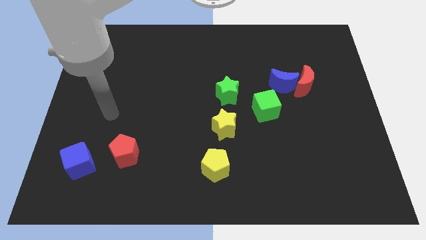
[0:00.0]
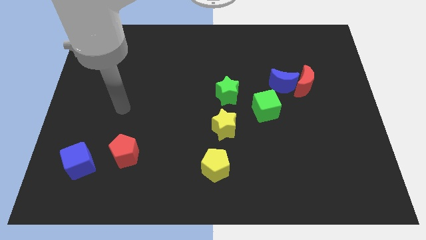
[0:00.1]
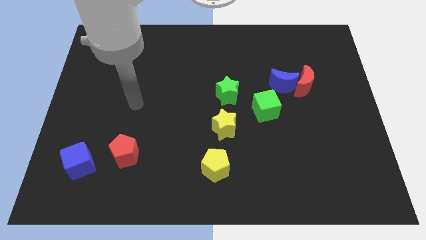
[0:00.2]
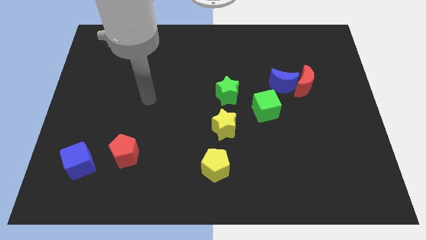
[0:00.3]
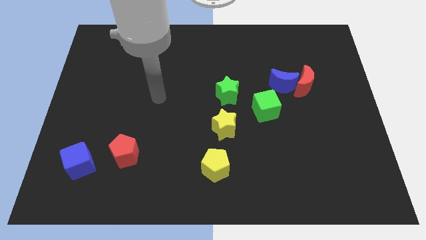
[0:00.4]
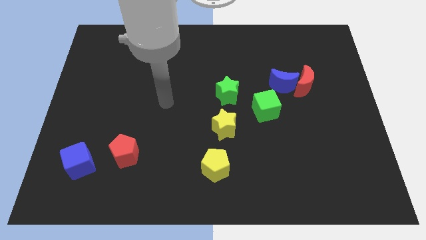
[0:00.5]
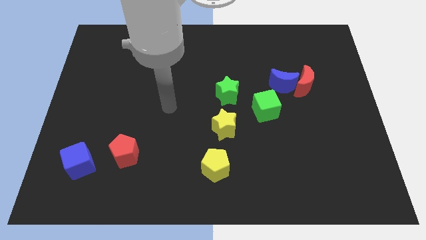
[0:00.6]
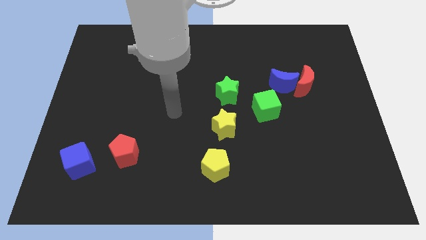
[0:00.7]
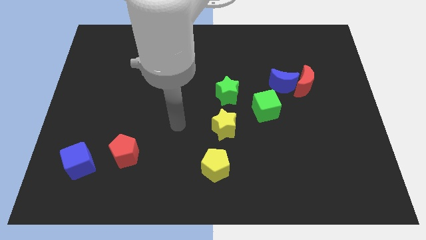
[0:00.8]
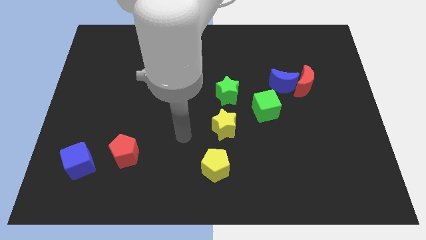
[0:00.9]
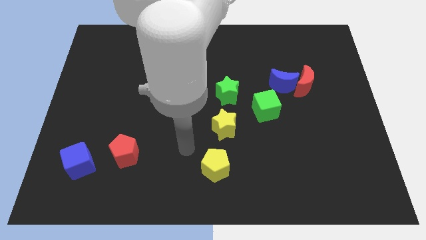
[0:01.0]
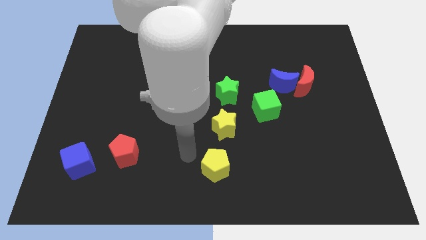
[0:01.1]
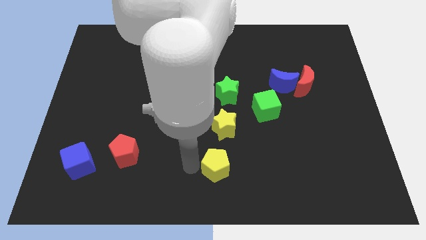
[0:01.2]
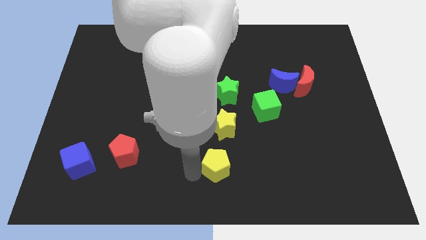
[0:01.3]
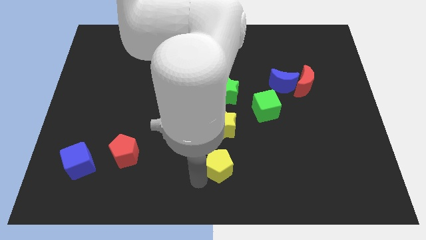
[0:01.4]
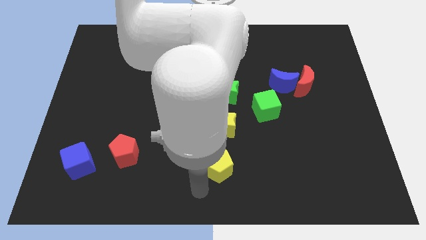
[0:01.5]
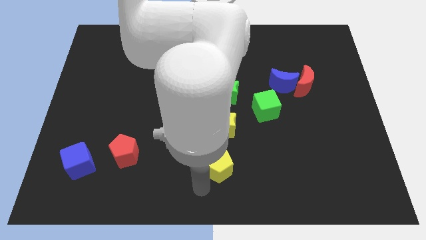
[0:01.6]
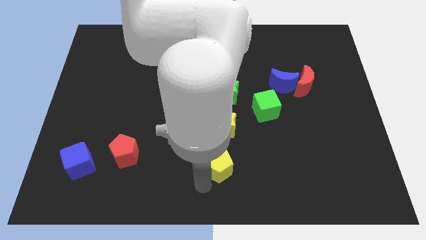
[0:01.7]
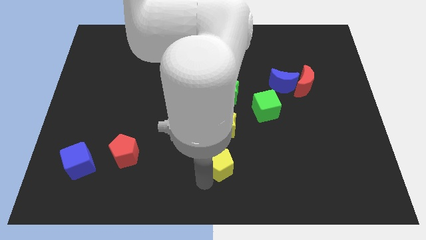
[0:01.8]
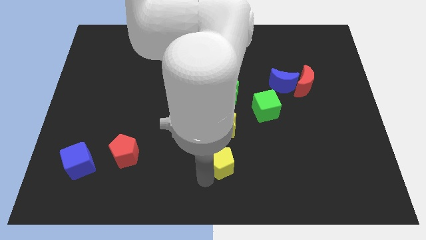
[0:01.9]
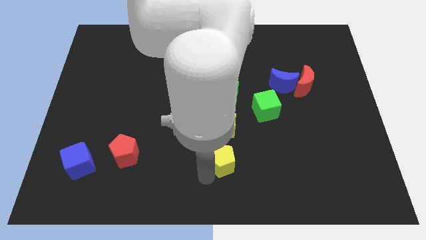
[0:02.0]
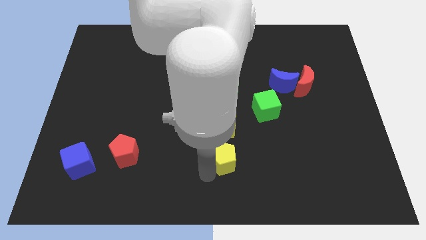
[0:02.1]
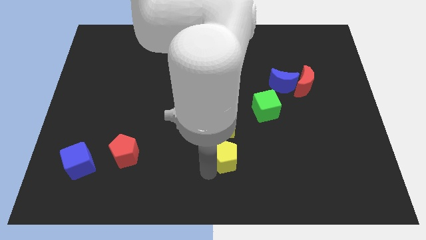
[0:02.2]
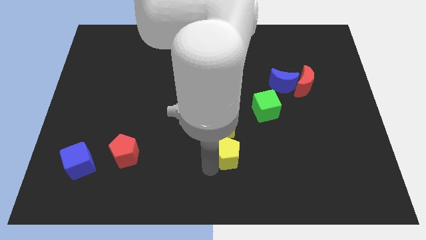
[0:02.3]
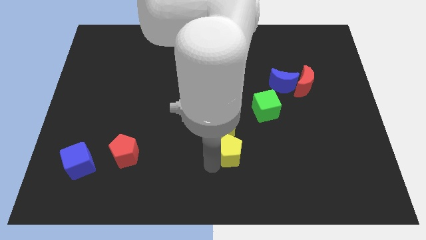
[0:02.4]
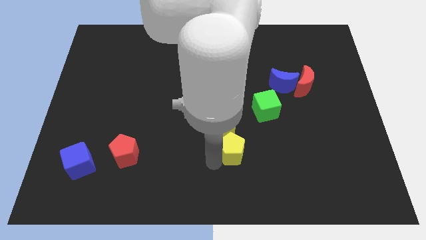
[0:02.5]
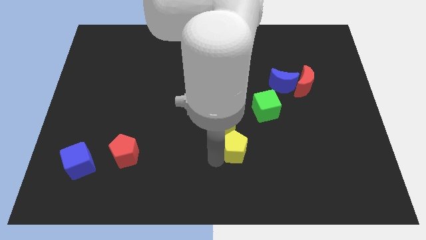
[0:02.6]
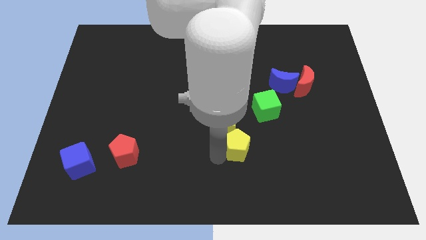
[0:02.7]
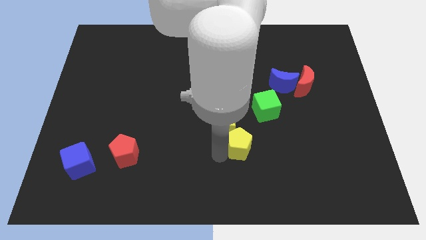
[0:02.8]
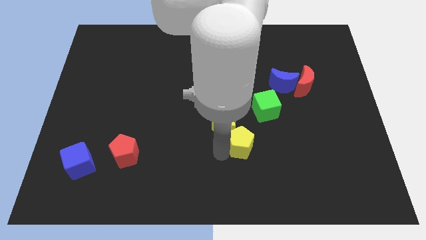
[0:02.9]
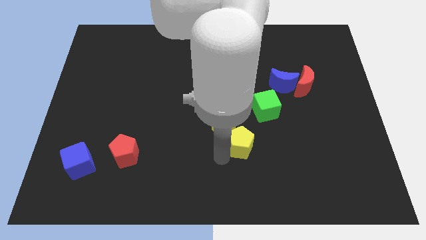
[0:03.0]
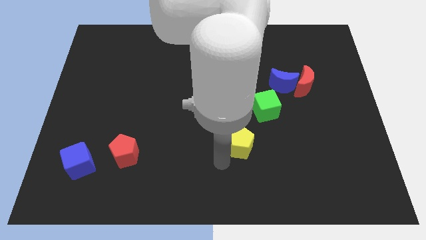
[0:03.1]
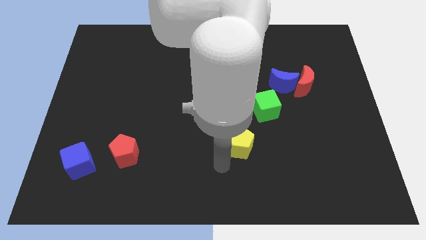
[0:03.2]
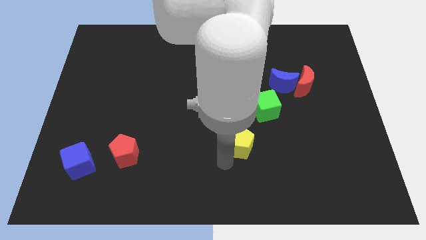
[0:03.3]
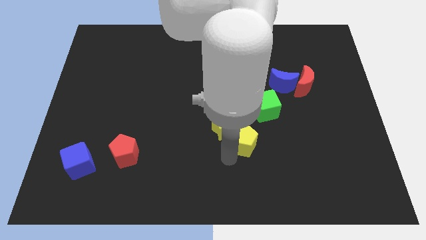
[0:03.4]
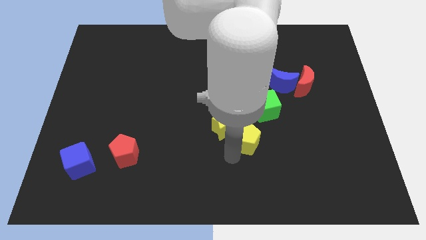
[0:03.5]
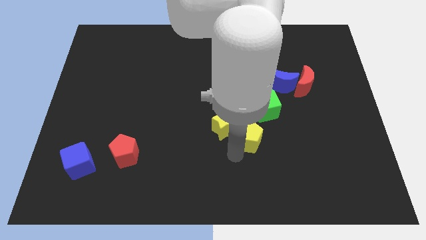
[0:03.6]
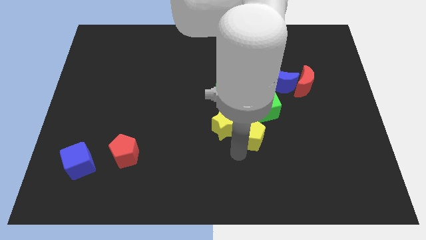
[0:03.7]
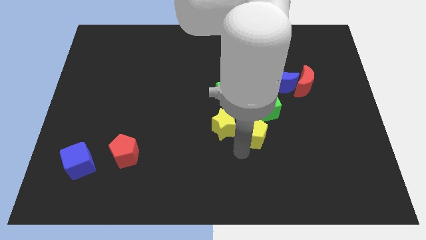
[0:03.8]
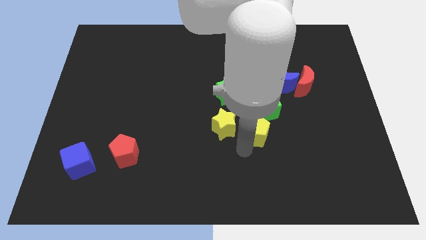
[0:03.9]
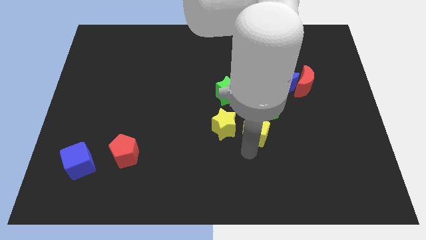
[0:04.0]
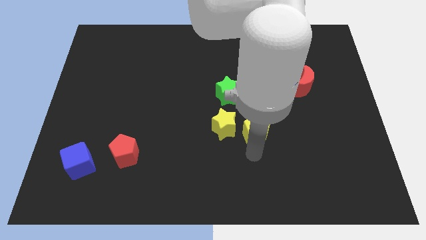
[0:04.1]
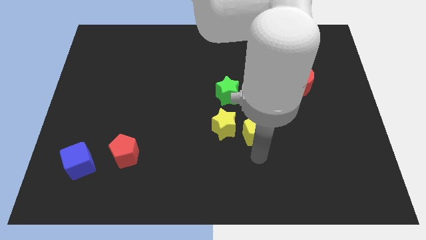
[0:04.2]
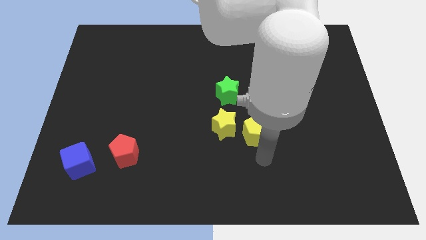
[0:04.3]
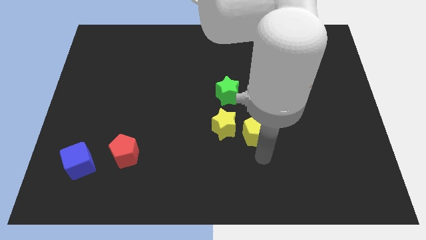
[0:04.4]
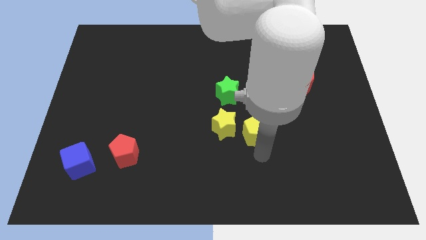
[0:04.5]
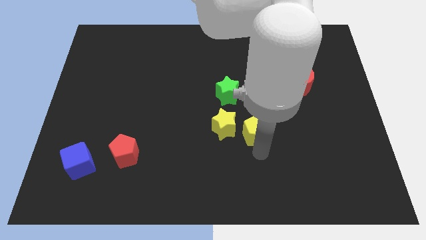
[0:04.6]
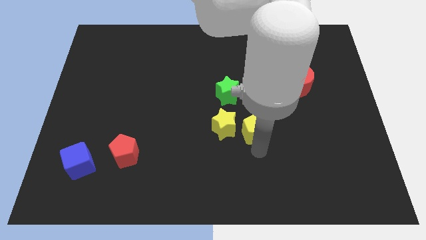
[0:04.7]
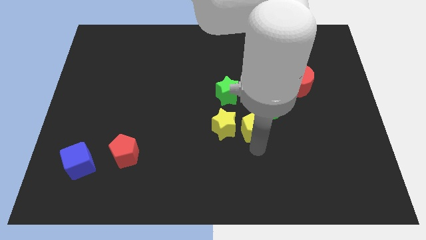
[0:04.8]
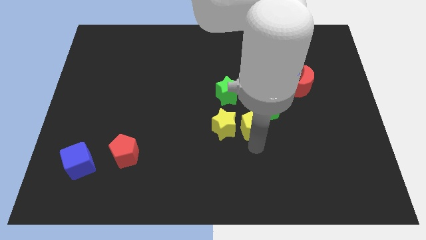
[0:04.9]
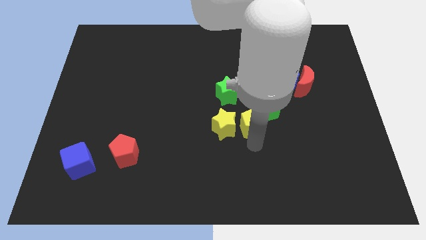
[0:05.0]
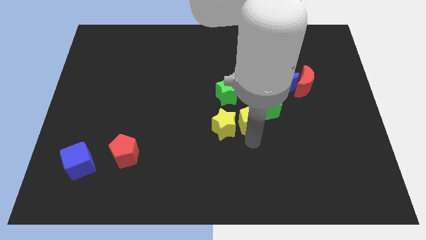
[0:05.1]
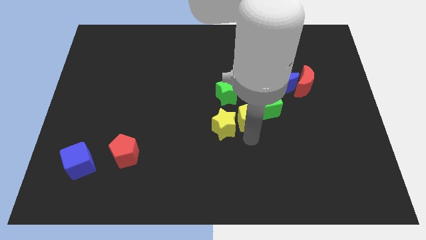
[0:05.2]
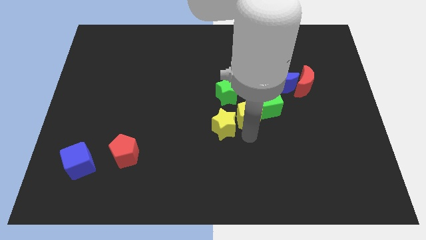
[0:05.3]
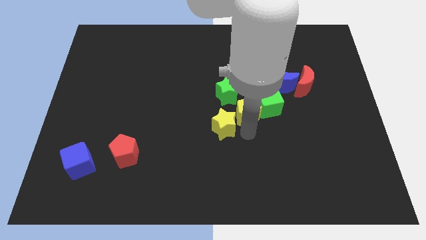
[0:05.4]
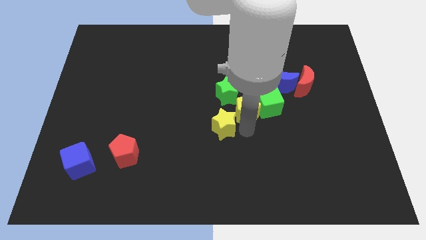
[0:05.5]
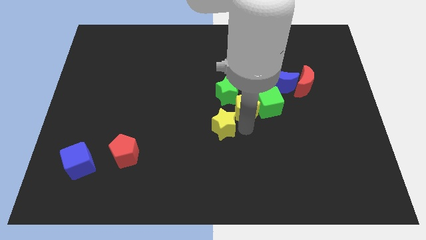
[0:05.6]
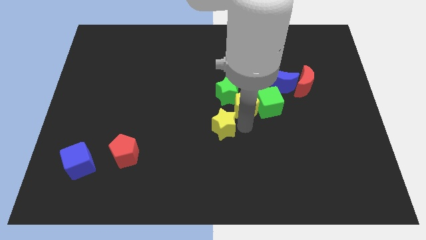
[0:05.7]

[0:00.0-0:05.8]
push the yellow pentagon right of the green star

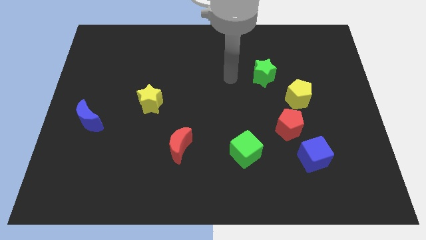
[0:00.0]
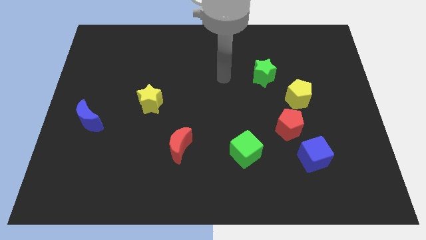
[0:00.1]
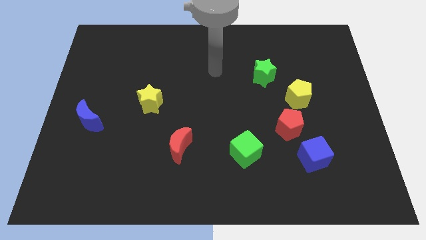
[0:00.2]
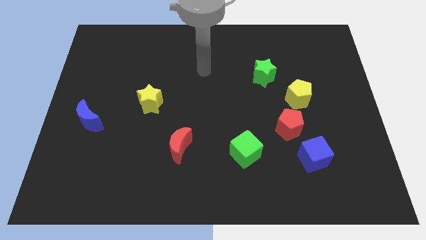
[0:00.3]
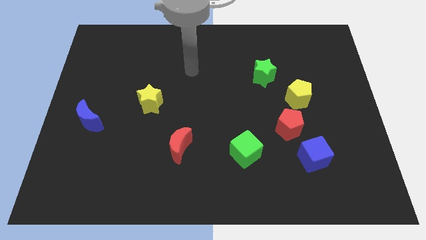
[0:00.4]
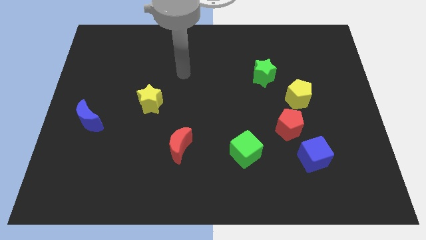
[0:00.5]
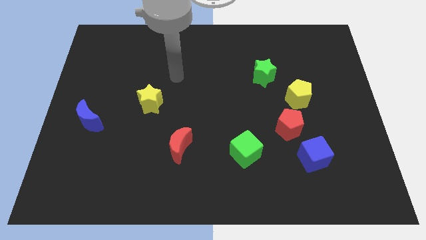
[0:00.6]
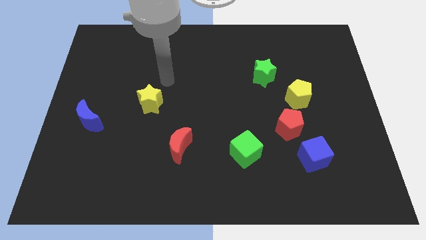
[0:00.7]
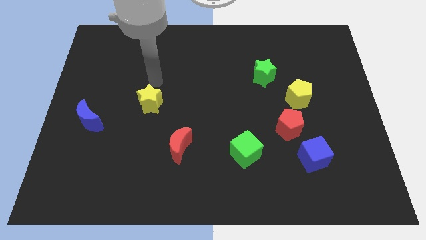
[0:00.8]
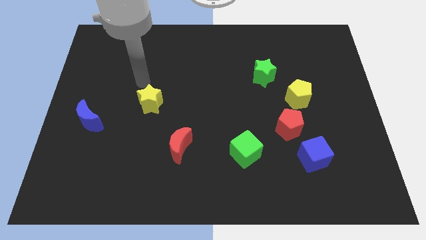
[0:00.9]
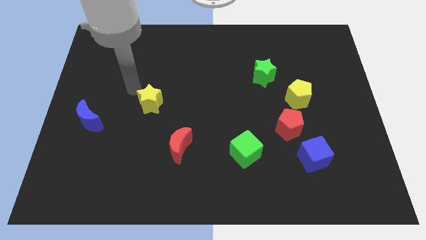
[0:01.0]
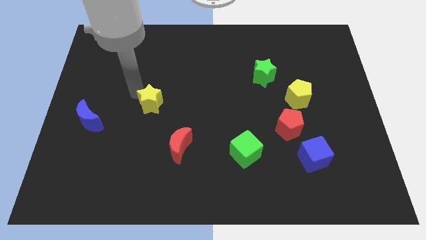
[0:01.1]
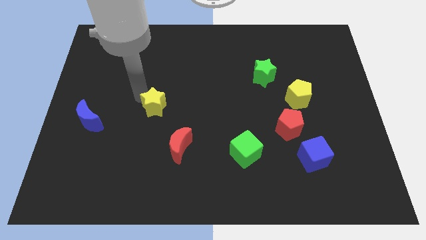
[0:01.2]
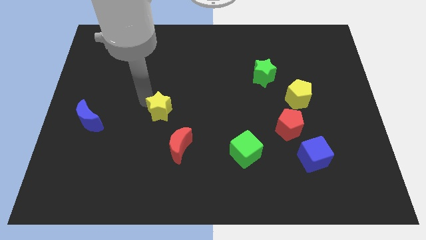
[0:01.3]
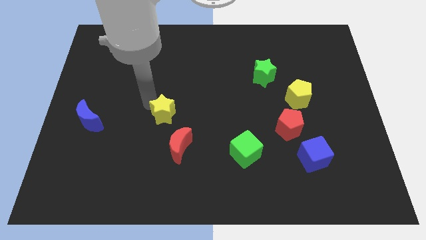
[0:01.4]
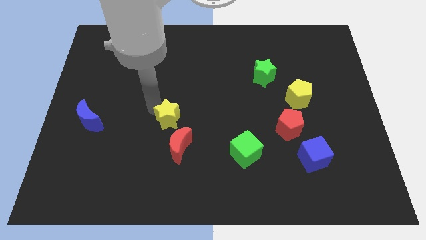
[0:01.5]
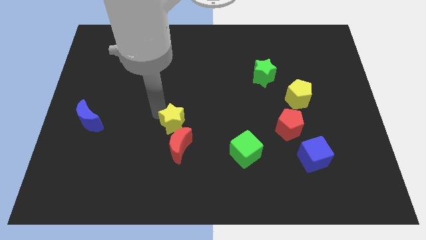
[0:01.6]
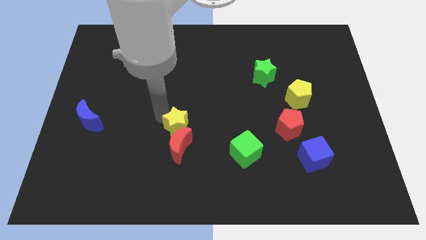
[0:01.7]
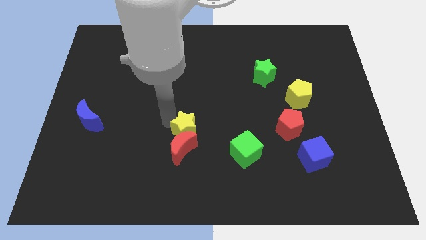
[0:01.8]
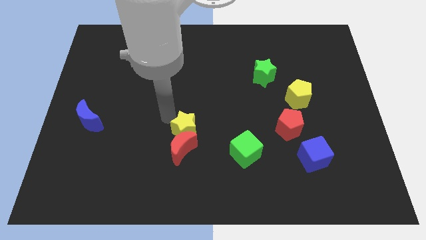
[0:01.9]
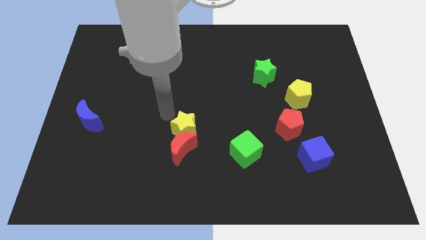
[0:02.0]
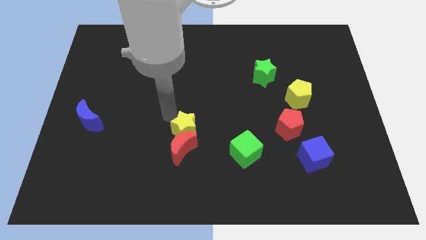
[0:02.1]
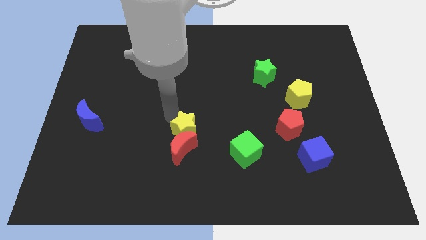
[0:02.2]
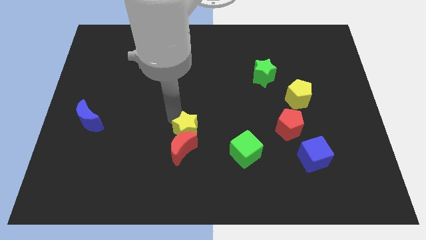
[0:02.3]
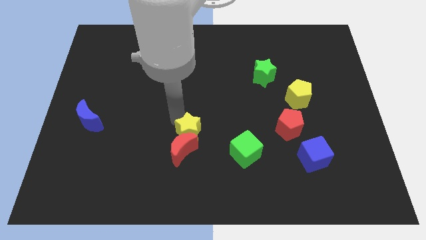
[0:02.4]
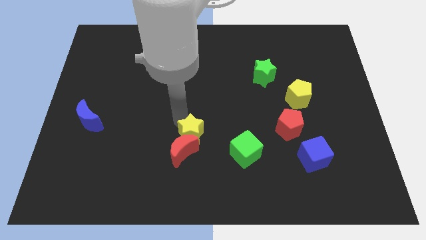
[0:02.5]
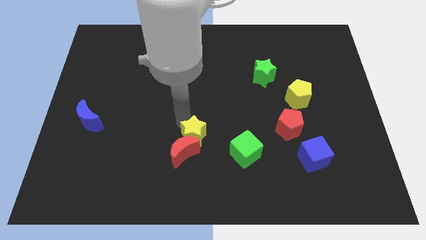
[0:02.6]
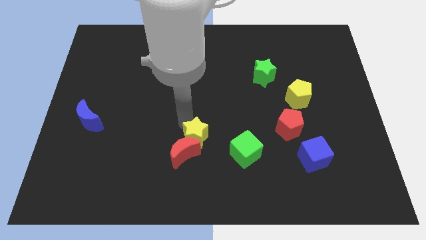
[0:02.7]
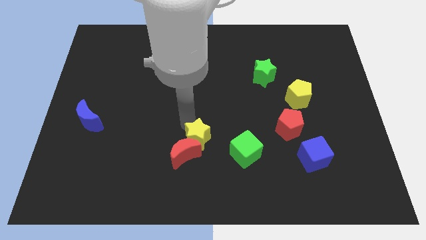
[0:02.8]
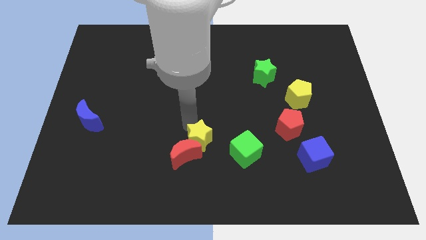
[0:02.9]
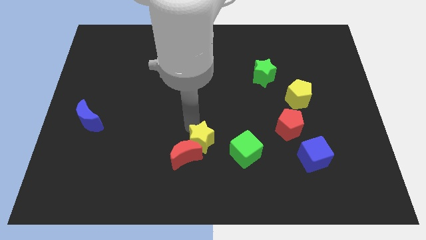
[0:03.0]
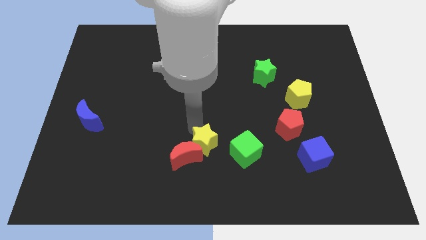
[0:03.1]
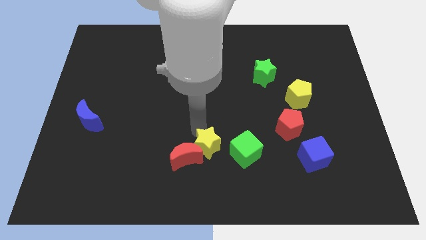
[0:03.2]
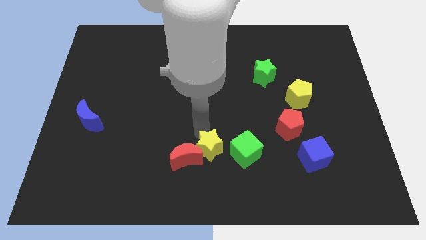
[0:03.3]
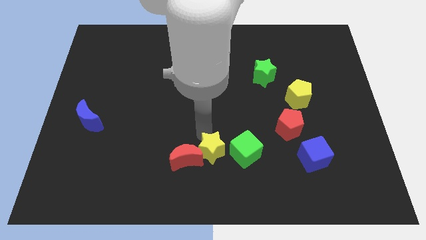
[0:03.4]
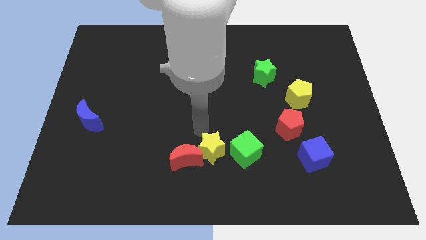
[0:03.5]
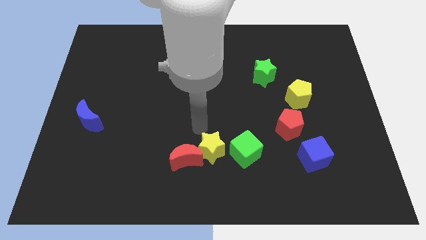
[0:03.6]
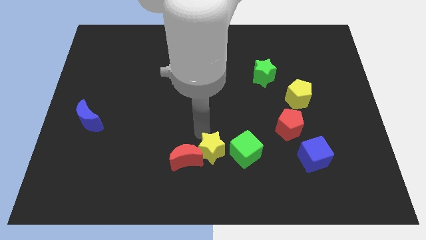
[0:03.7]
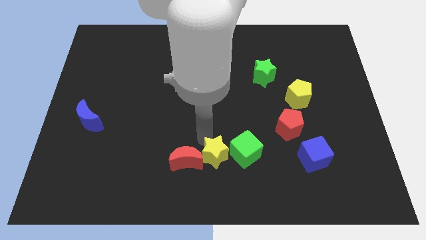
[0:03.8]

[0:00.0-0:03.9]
slide the yellow star to the bottom left side of the green cube
